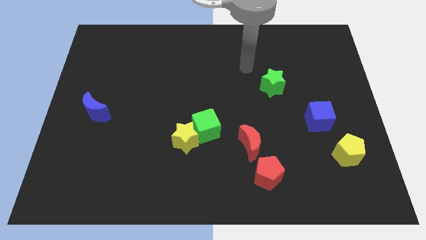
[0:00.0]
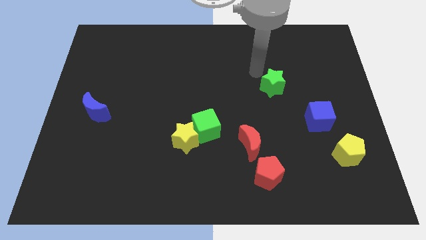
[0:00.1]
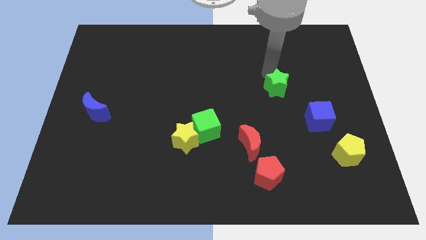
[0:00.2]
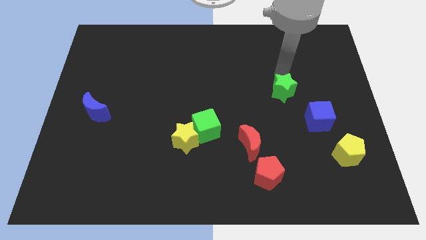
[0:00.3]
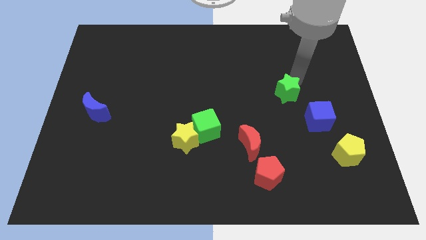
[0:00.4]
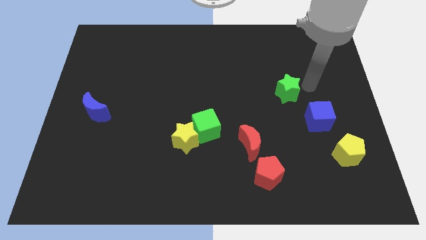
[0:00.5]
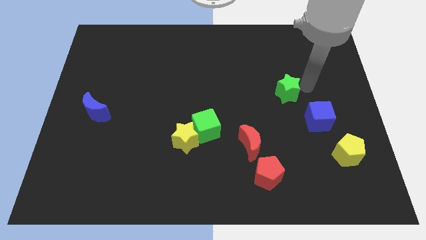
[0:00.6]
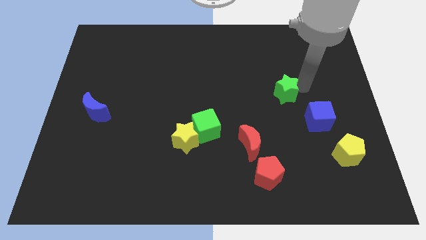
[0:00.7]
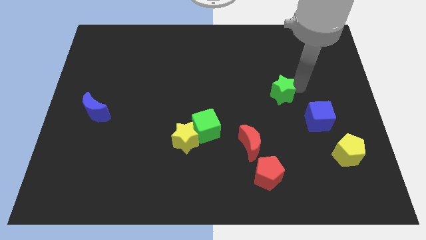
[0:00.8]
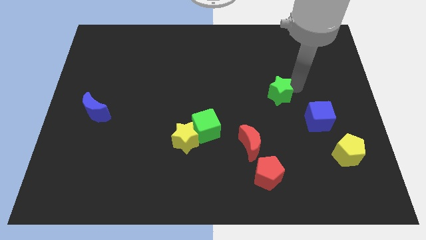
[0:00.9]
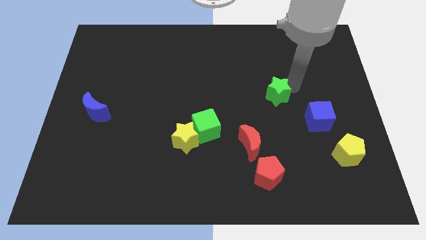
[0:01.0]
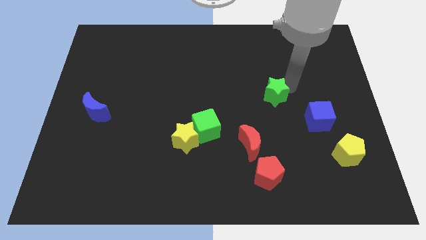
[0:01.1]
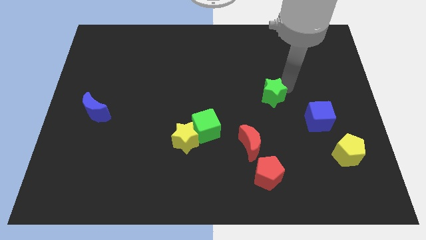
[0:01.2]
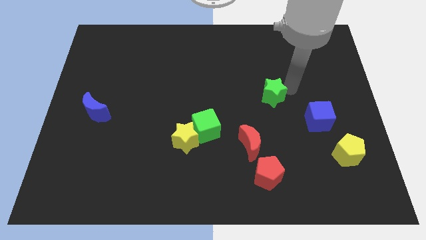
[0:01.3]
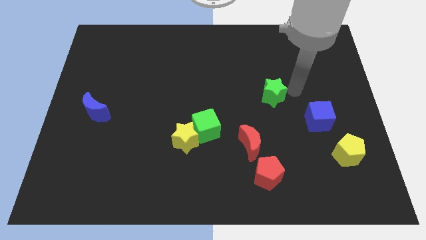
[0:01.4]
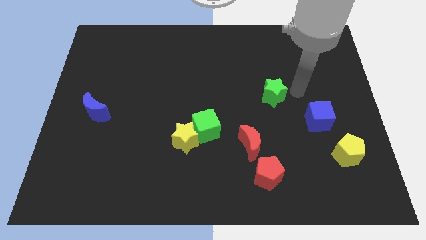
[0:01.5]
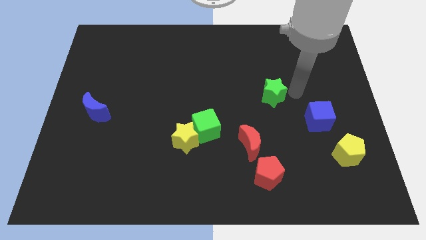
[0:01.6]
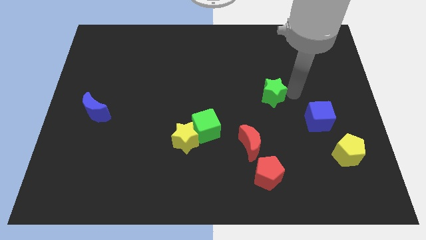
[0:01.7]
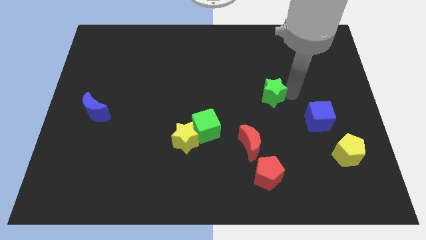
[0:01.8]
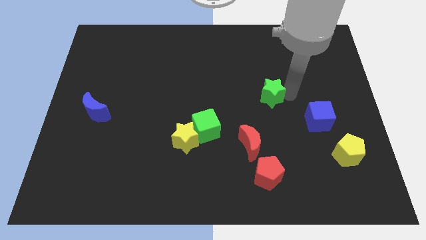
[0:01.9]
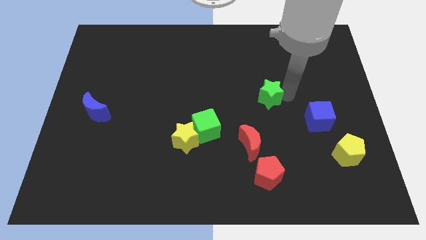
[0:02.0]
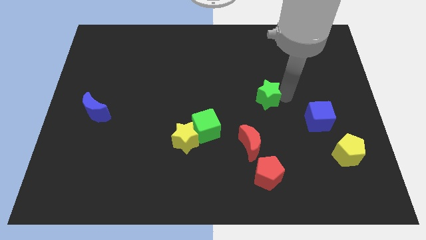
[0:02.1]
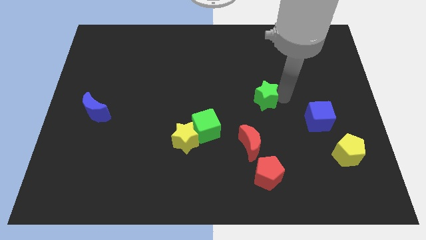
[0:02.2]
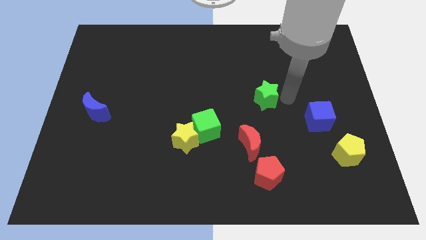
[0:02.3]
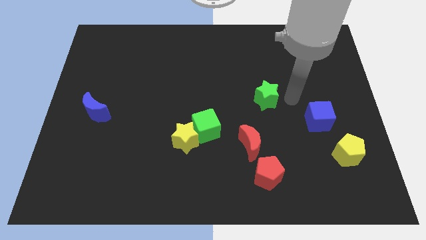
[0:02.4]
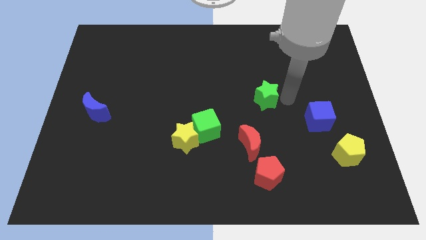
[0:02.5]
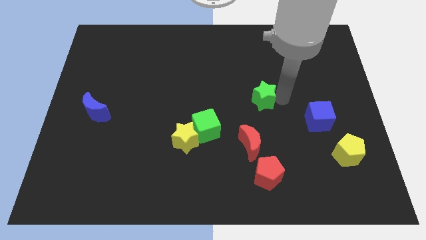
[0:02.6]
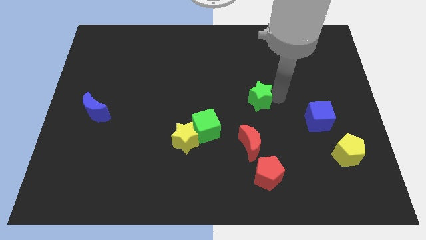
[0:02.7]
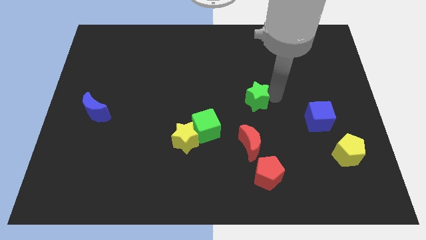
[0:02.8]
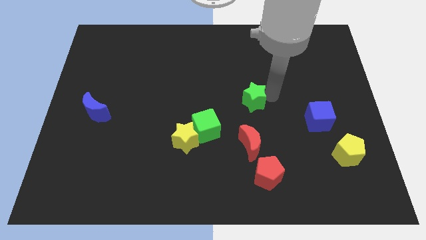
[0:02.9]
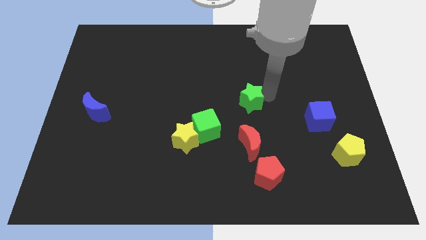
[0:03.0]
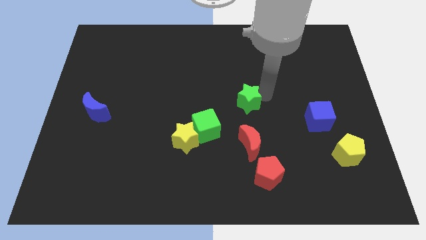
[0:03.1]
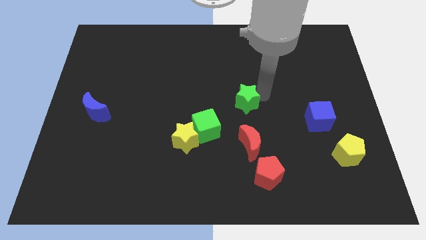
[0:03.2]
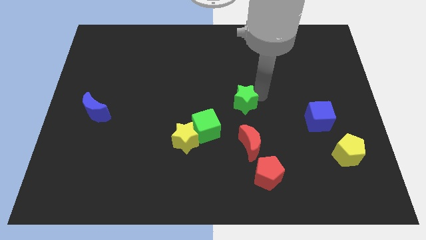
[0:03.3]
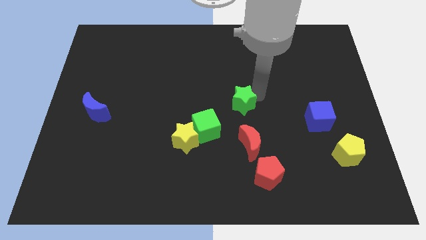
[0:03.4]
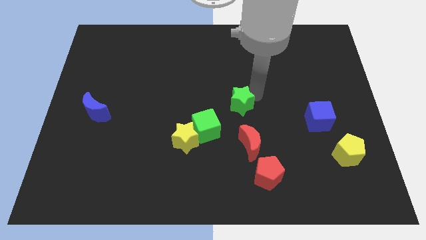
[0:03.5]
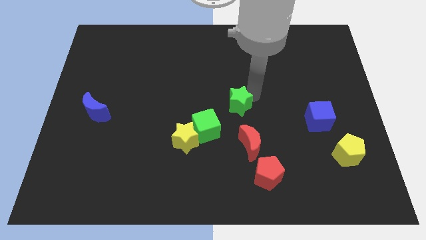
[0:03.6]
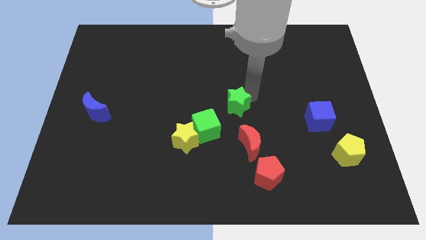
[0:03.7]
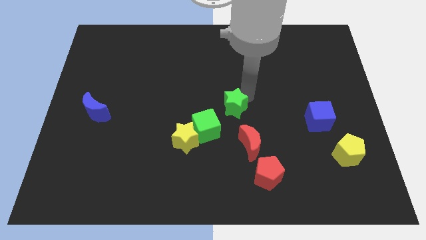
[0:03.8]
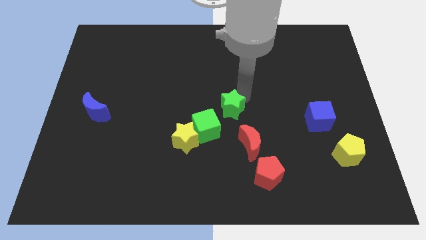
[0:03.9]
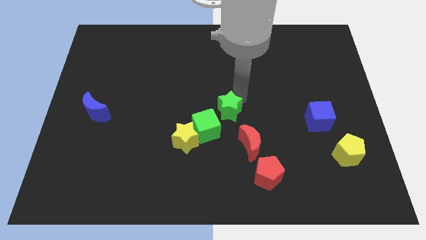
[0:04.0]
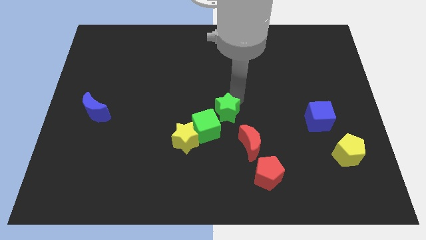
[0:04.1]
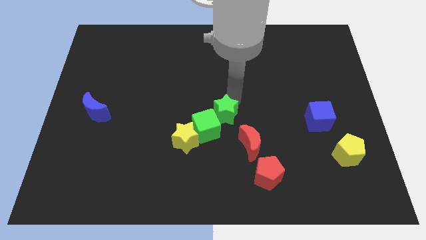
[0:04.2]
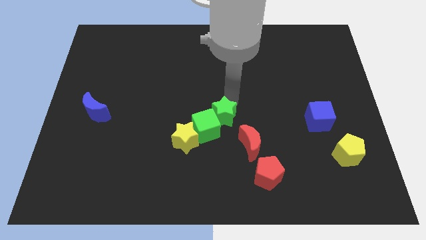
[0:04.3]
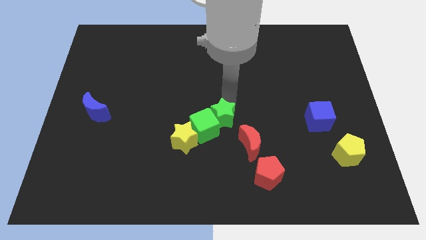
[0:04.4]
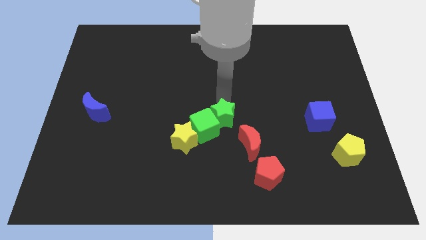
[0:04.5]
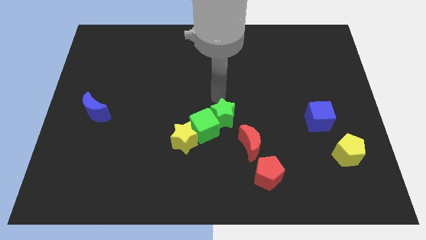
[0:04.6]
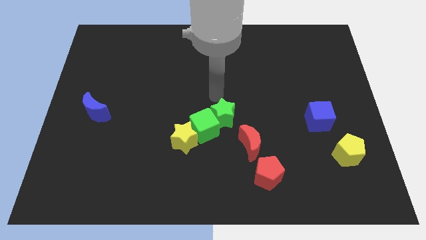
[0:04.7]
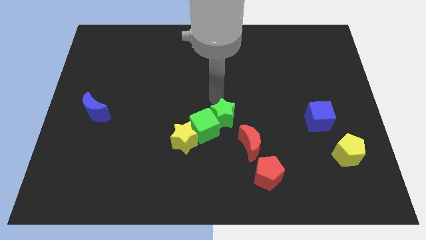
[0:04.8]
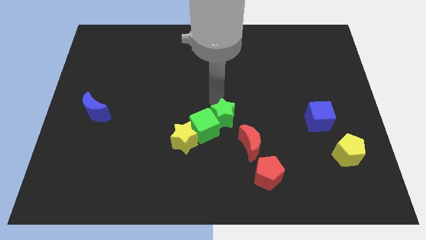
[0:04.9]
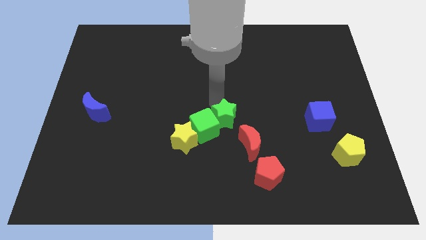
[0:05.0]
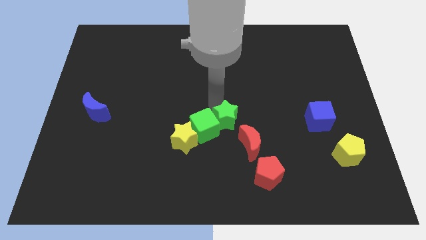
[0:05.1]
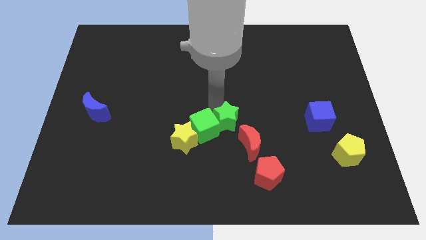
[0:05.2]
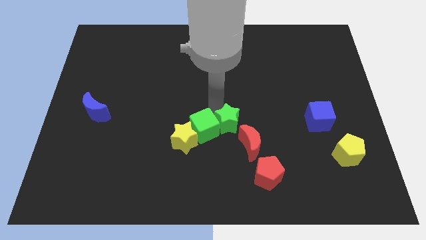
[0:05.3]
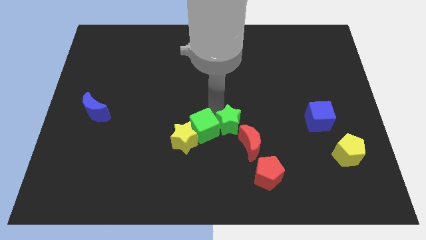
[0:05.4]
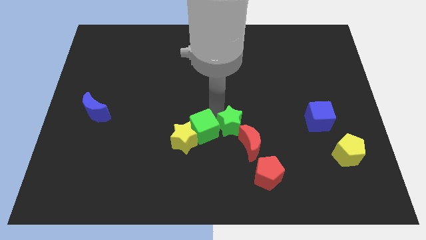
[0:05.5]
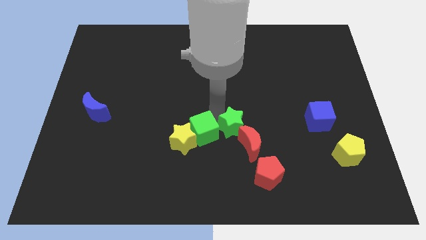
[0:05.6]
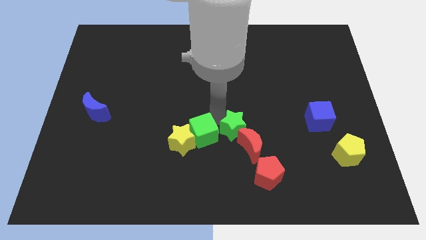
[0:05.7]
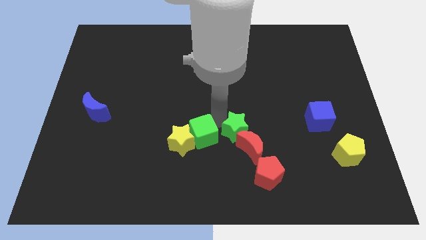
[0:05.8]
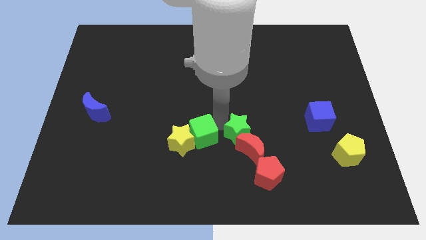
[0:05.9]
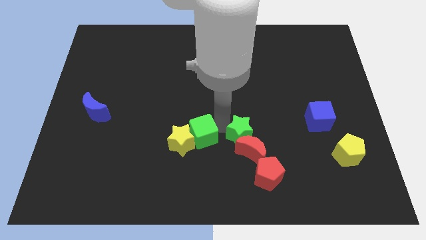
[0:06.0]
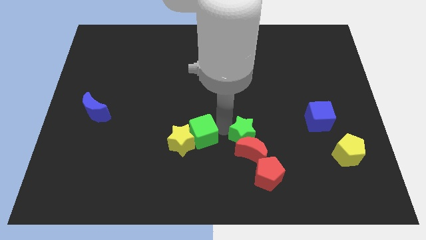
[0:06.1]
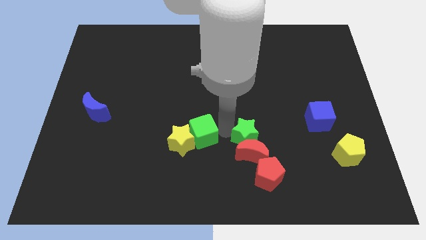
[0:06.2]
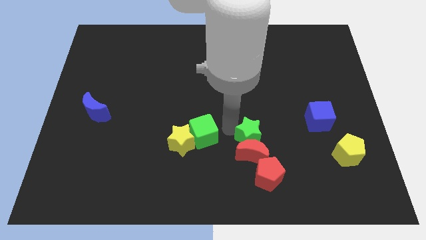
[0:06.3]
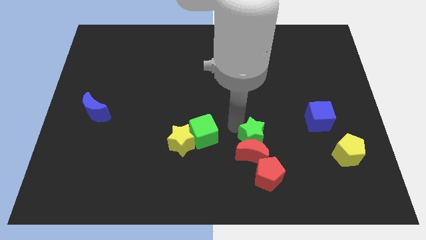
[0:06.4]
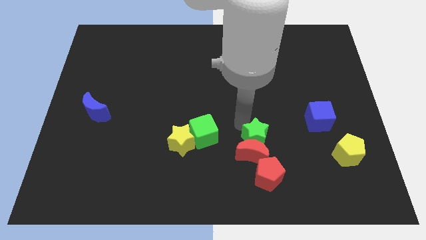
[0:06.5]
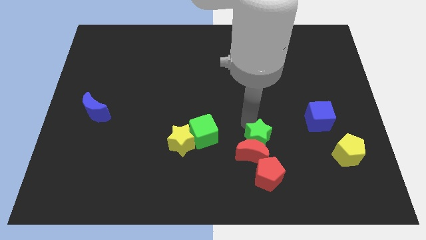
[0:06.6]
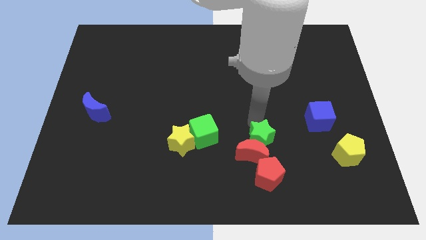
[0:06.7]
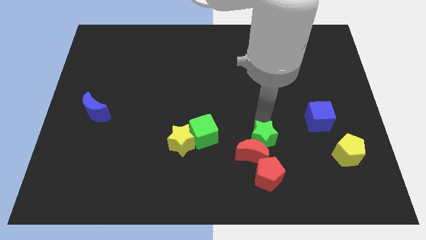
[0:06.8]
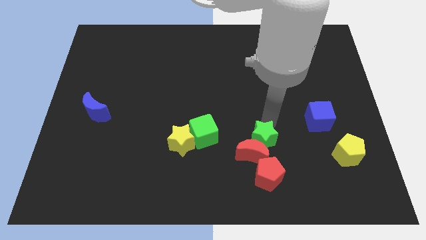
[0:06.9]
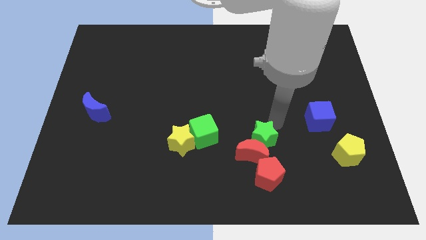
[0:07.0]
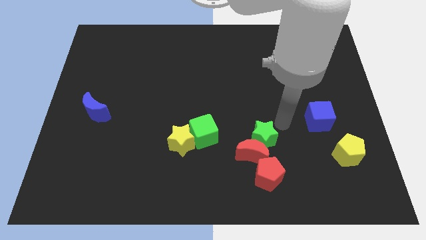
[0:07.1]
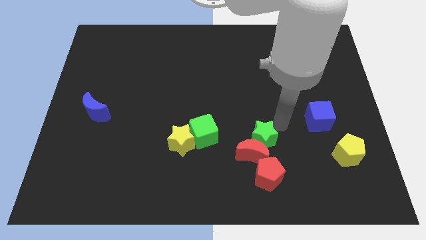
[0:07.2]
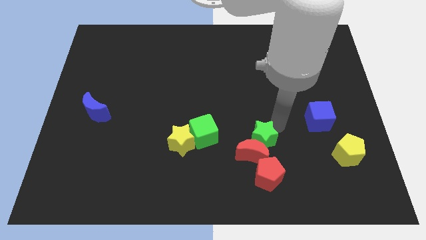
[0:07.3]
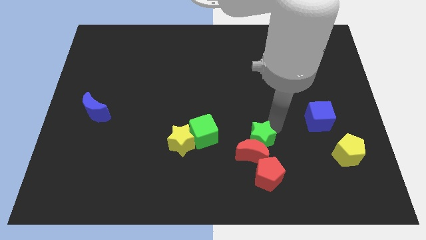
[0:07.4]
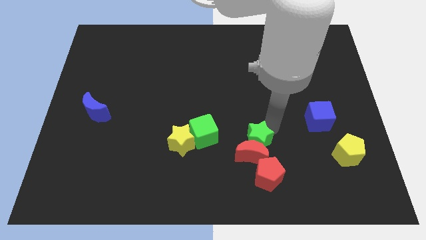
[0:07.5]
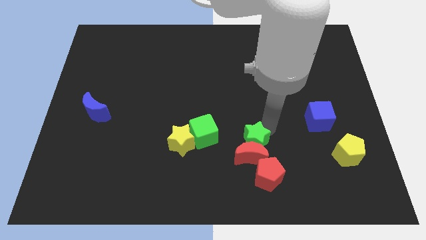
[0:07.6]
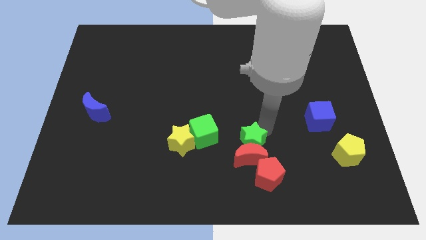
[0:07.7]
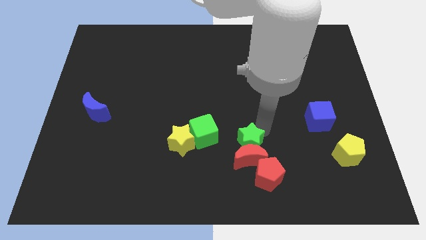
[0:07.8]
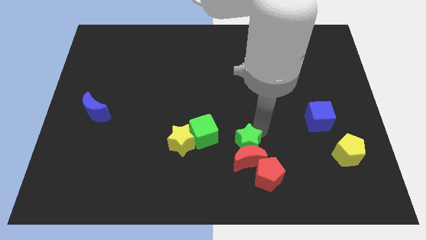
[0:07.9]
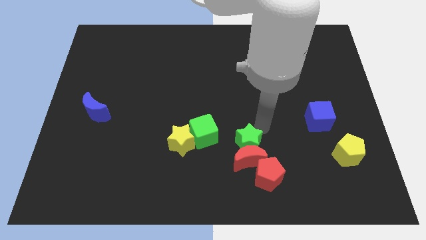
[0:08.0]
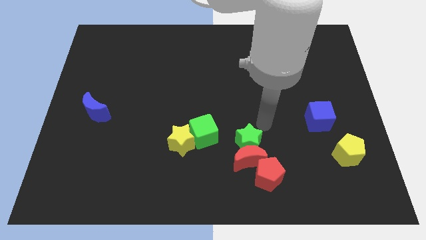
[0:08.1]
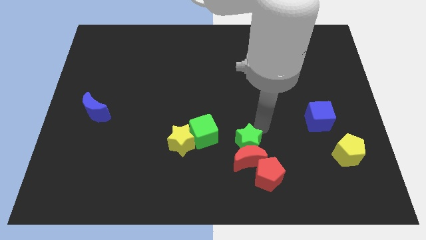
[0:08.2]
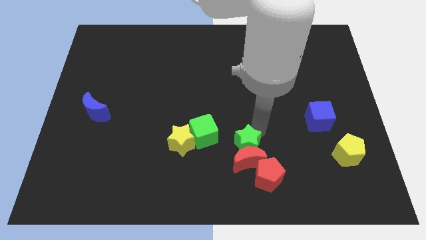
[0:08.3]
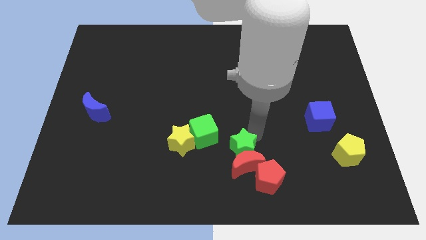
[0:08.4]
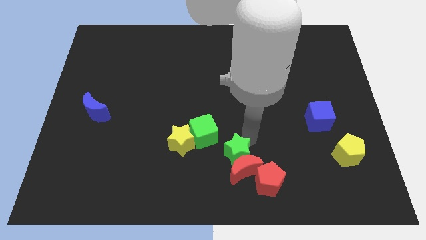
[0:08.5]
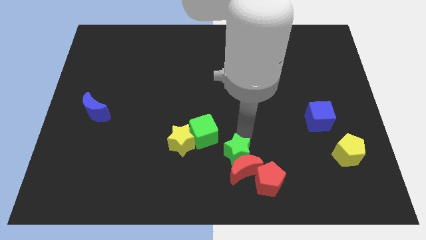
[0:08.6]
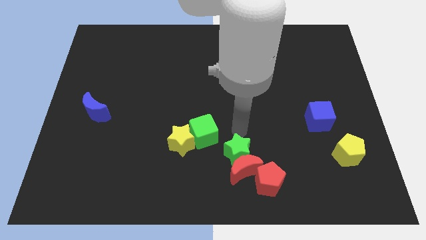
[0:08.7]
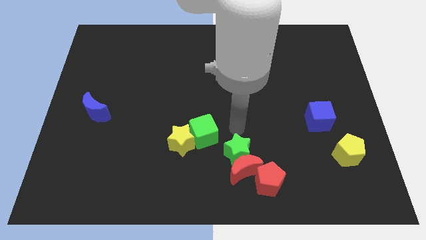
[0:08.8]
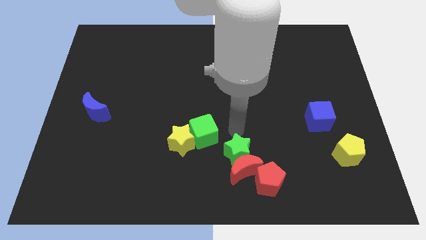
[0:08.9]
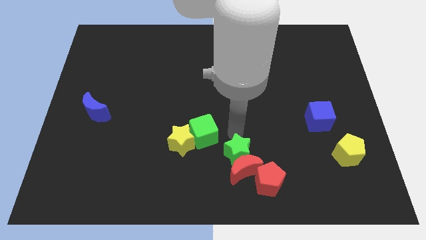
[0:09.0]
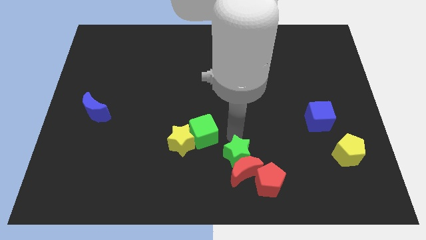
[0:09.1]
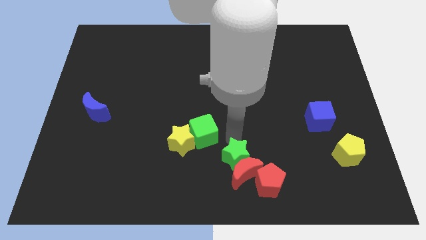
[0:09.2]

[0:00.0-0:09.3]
slide the green star to the bottom side
